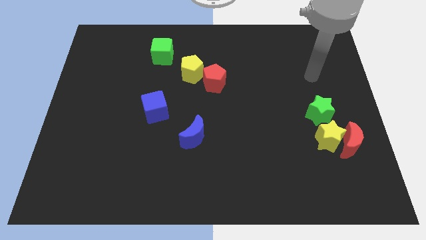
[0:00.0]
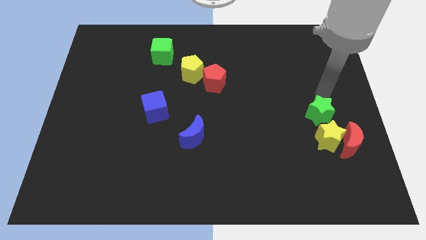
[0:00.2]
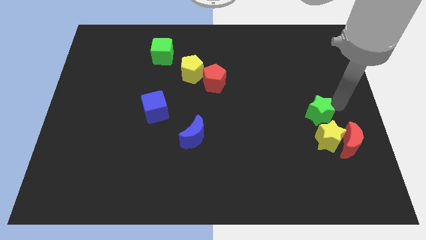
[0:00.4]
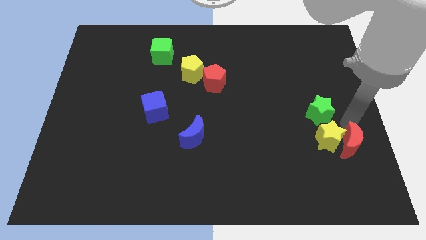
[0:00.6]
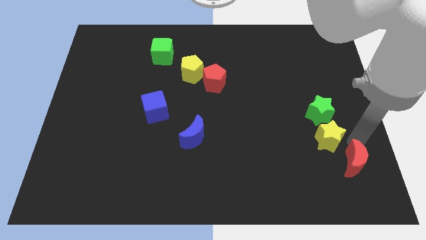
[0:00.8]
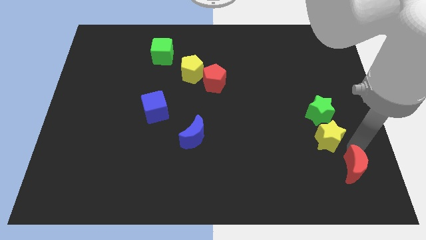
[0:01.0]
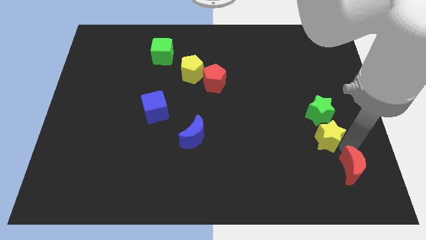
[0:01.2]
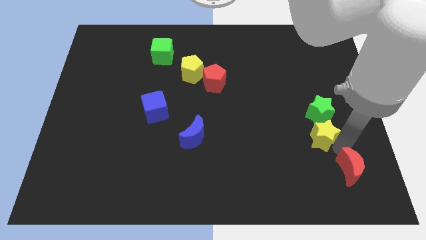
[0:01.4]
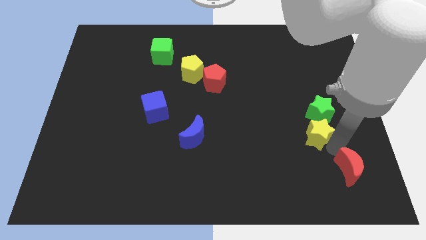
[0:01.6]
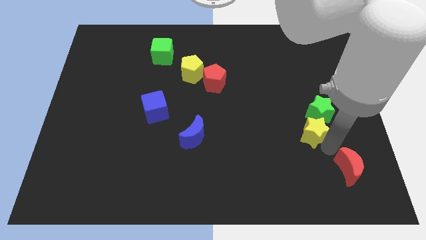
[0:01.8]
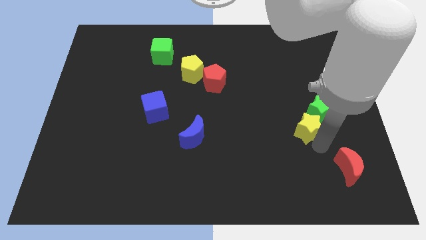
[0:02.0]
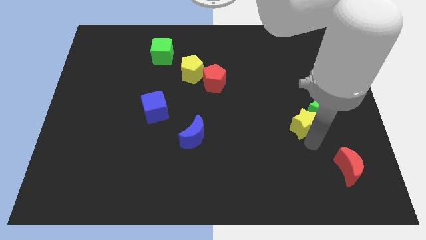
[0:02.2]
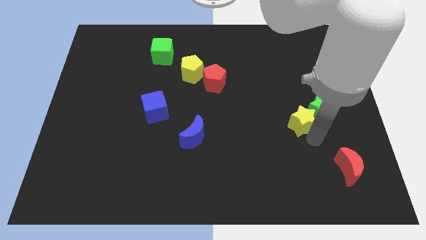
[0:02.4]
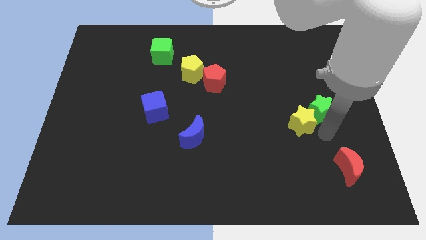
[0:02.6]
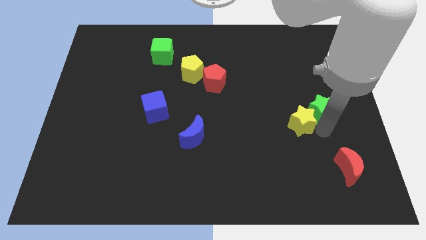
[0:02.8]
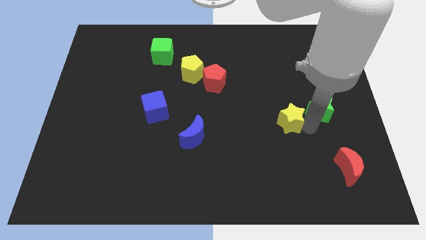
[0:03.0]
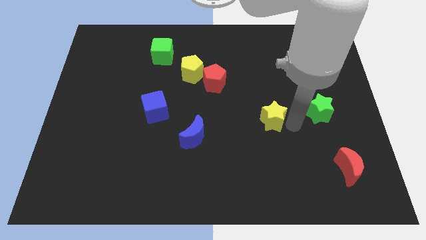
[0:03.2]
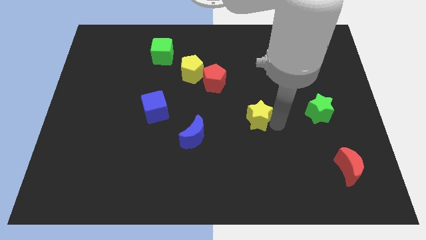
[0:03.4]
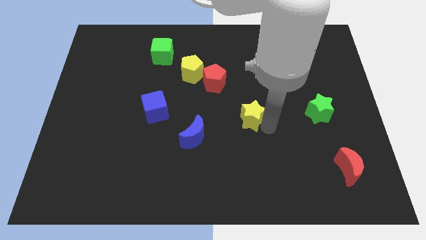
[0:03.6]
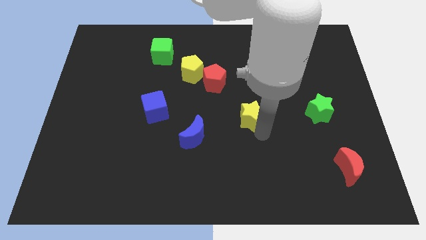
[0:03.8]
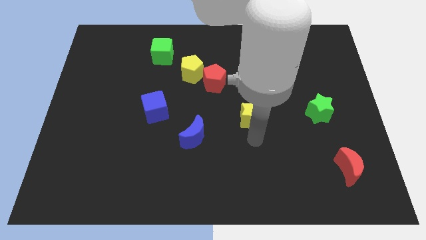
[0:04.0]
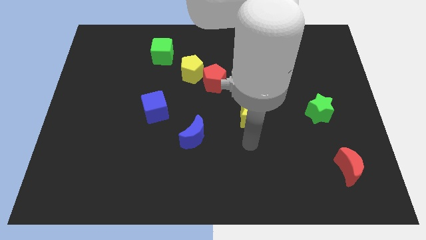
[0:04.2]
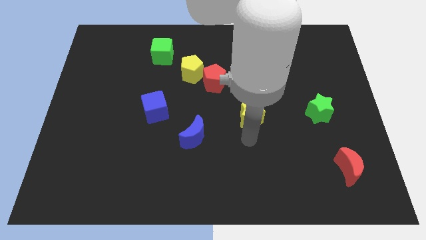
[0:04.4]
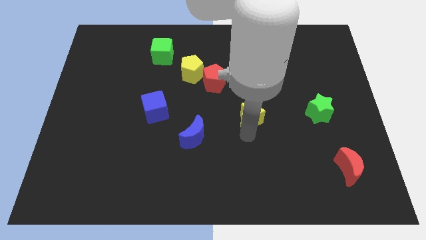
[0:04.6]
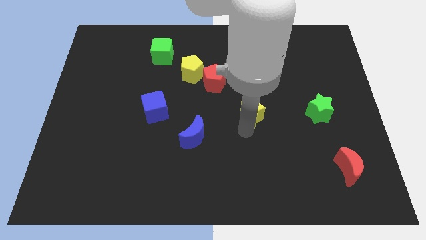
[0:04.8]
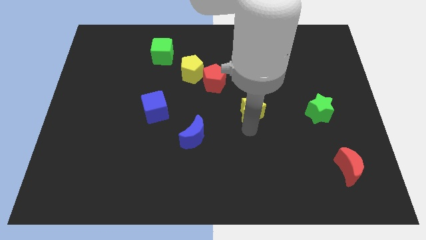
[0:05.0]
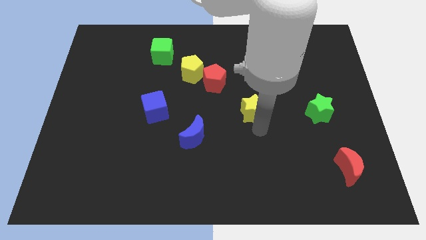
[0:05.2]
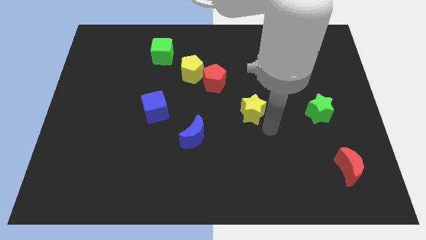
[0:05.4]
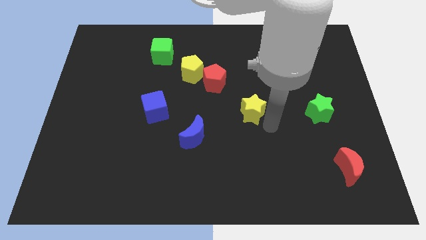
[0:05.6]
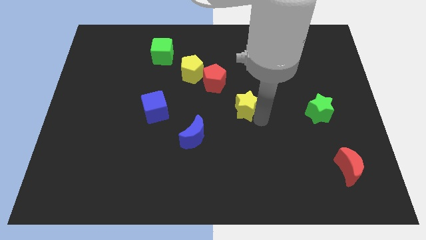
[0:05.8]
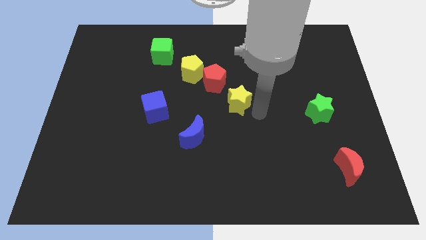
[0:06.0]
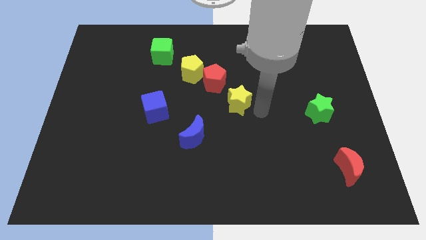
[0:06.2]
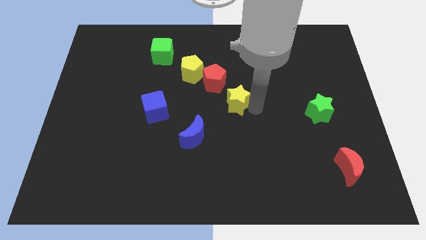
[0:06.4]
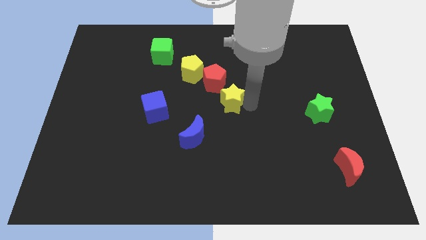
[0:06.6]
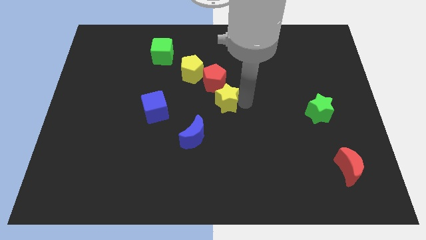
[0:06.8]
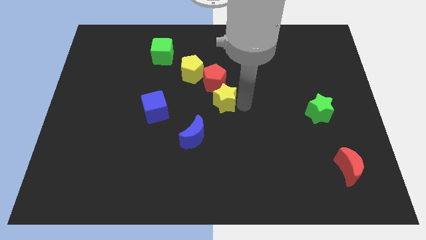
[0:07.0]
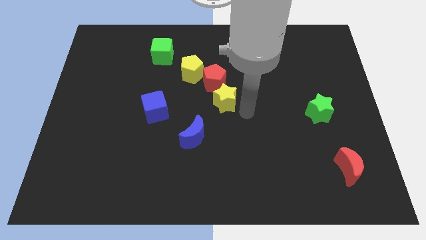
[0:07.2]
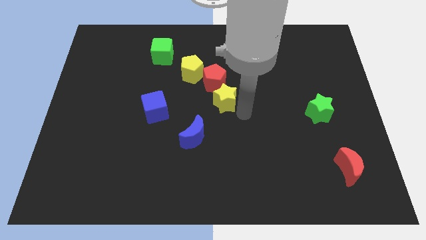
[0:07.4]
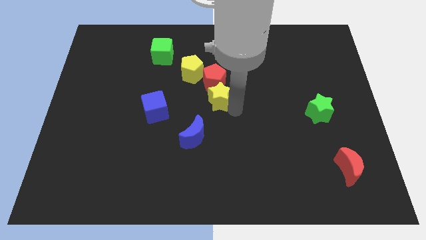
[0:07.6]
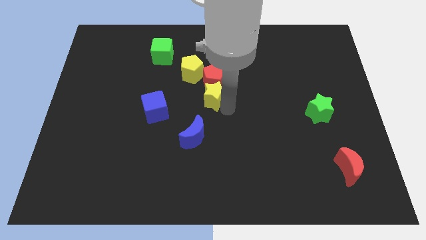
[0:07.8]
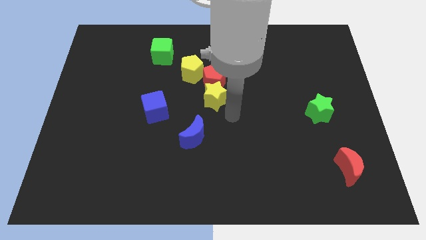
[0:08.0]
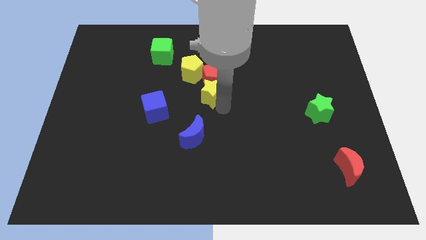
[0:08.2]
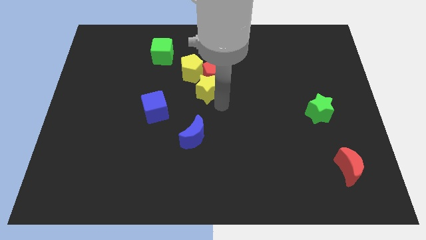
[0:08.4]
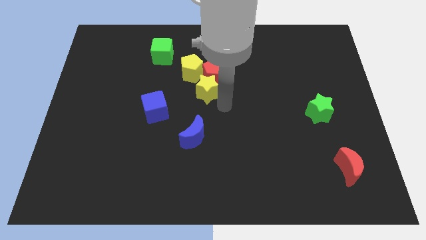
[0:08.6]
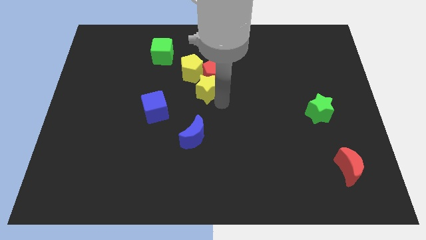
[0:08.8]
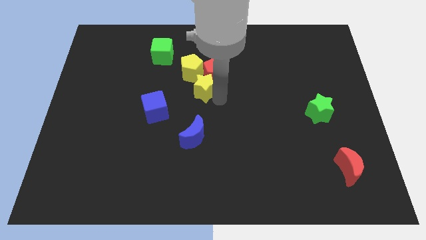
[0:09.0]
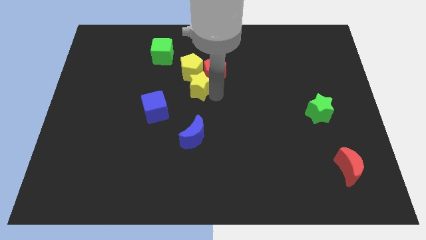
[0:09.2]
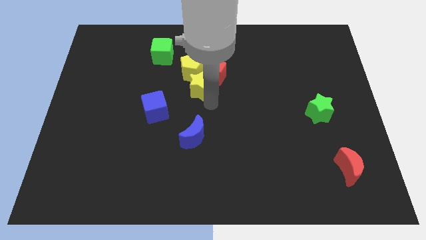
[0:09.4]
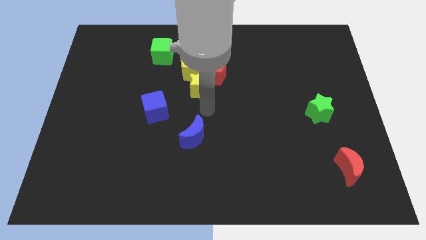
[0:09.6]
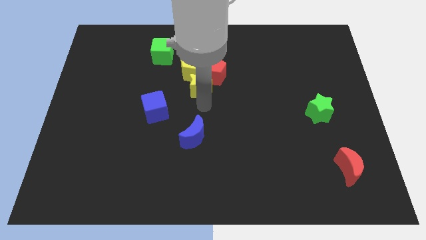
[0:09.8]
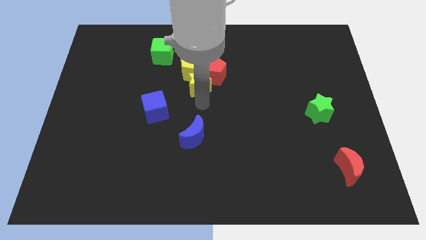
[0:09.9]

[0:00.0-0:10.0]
slide the yellow star close to the yellow pentagon

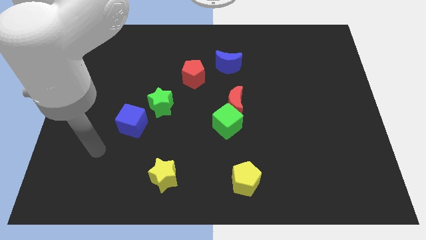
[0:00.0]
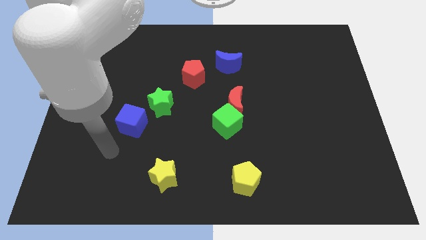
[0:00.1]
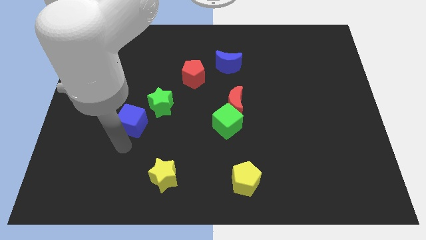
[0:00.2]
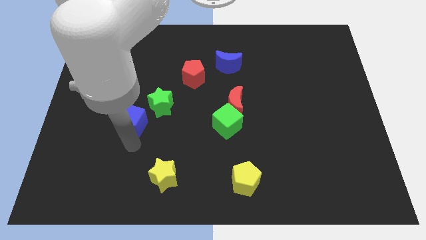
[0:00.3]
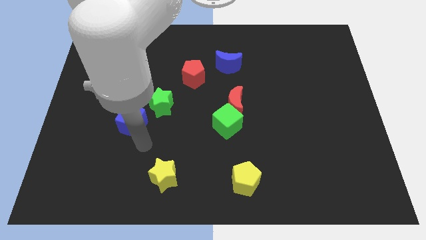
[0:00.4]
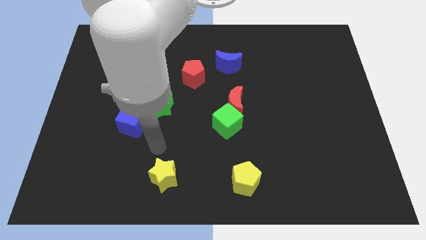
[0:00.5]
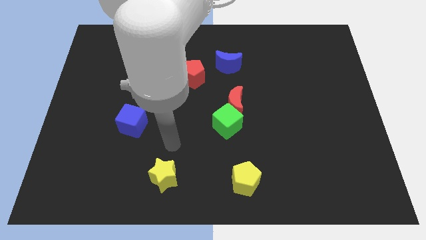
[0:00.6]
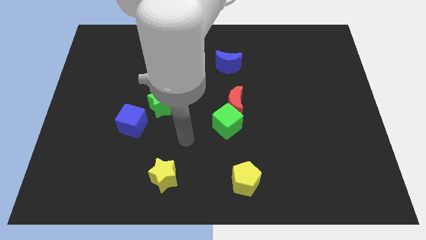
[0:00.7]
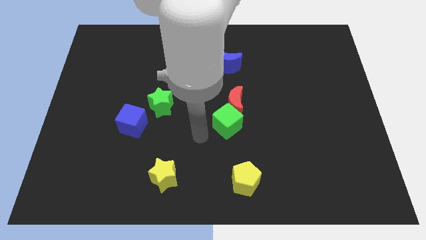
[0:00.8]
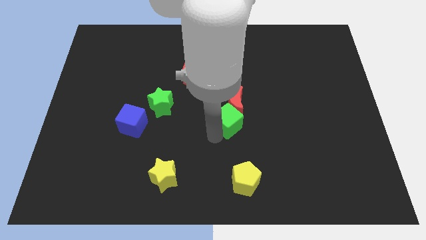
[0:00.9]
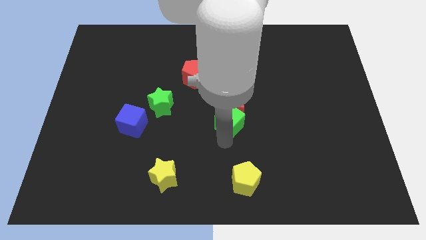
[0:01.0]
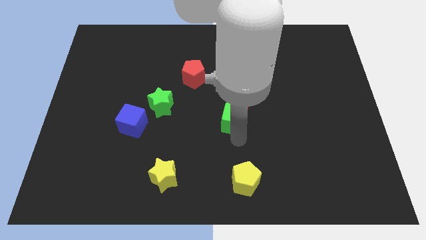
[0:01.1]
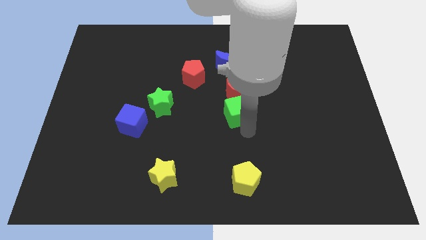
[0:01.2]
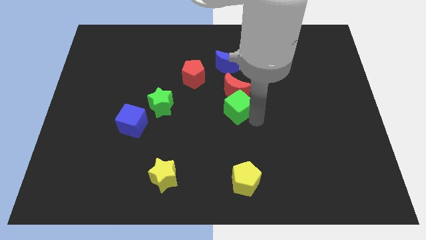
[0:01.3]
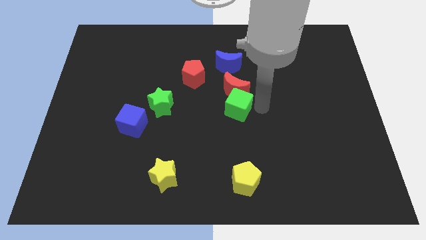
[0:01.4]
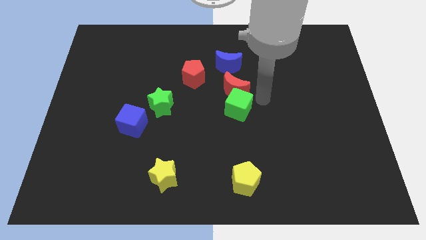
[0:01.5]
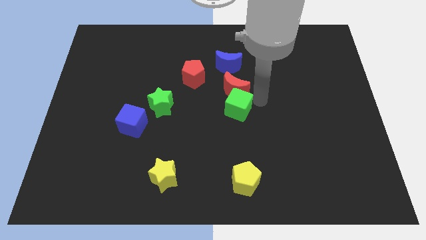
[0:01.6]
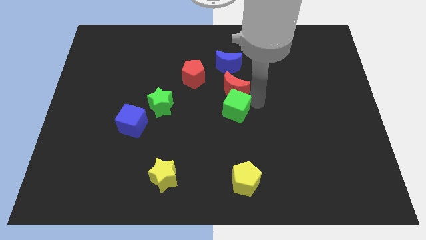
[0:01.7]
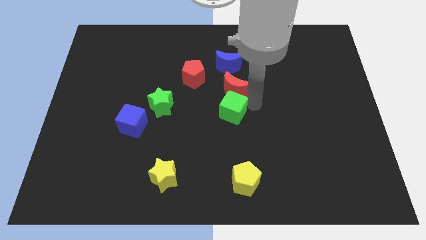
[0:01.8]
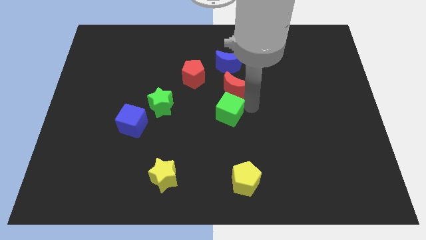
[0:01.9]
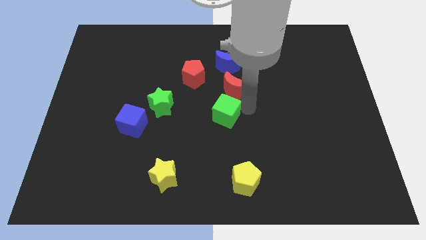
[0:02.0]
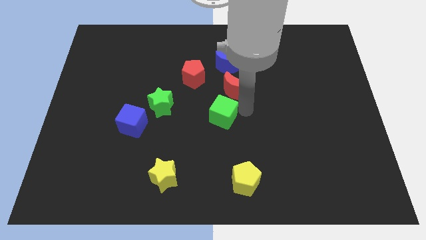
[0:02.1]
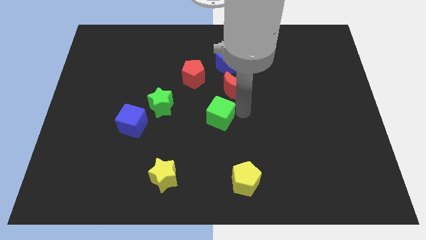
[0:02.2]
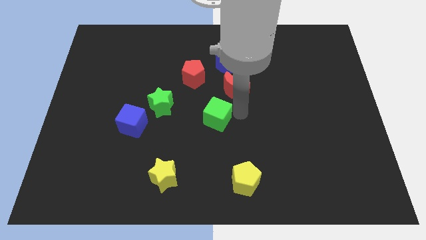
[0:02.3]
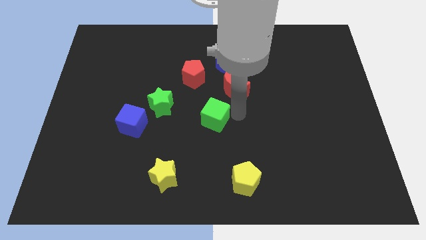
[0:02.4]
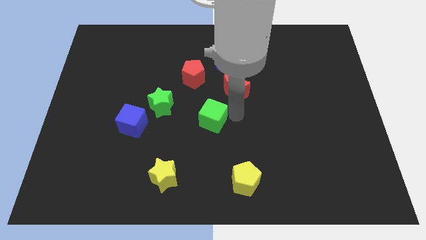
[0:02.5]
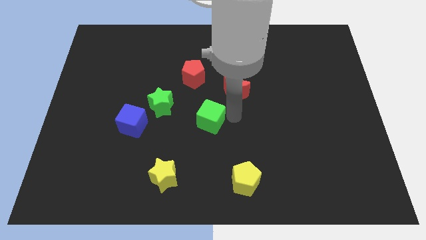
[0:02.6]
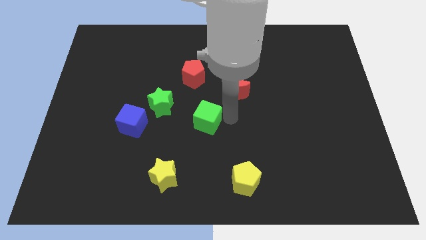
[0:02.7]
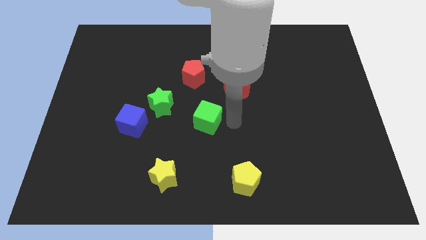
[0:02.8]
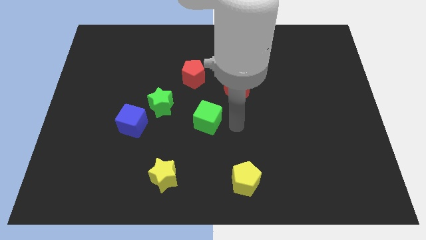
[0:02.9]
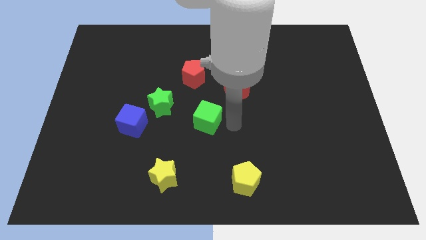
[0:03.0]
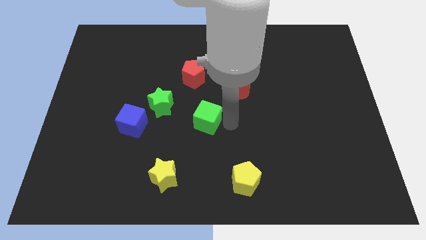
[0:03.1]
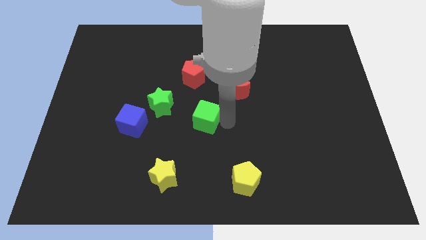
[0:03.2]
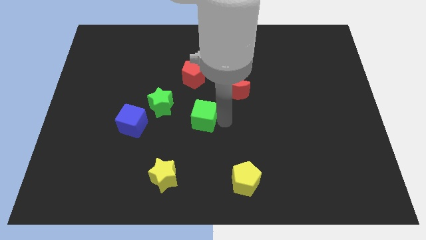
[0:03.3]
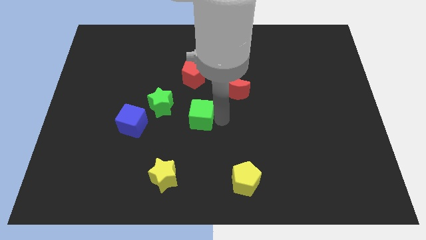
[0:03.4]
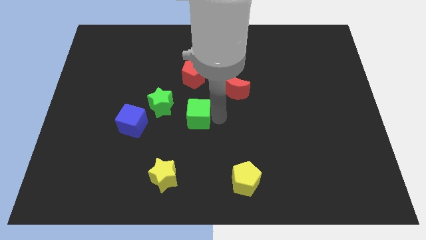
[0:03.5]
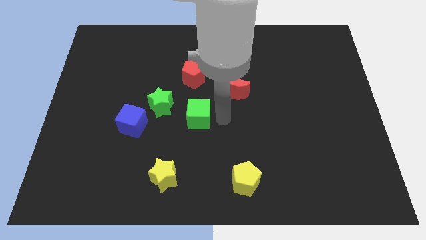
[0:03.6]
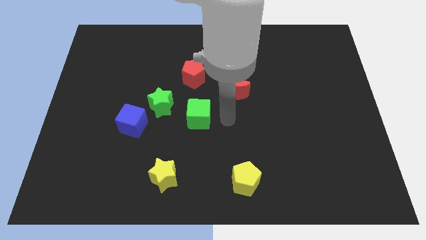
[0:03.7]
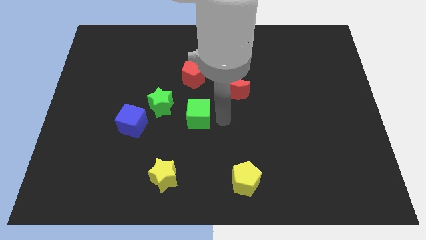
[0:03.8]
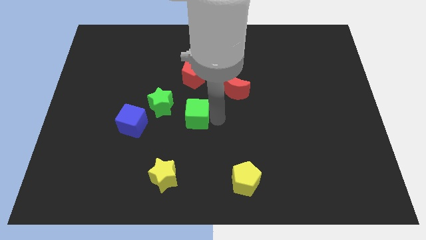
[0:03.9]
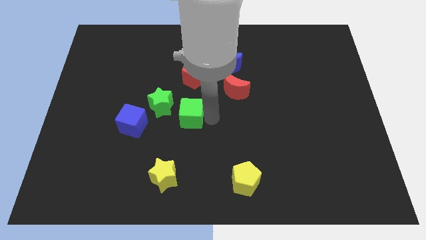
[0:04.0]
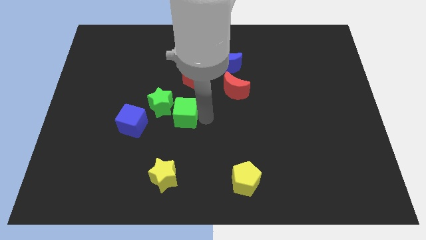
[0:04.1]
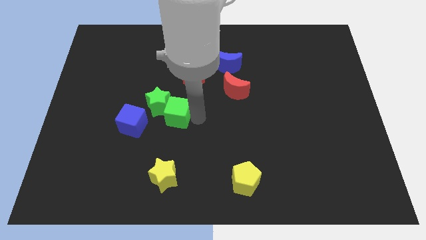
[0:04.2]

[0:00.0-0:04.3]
push the green cube next to the green star
